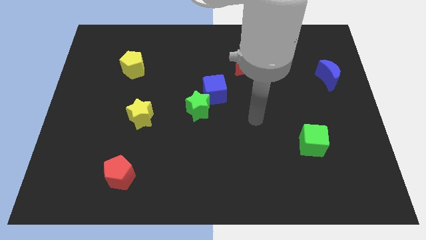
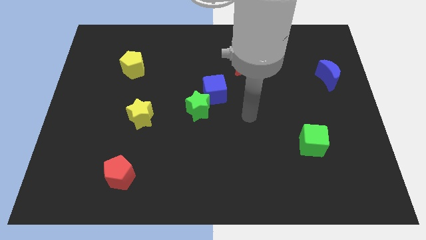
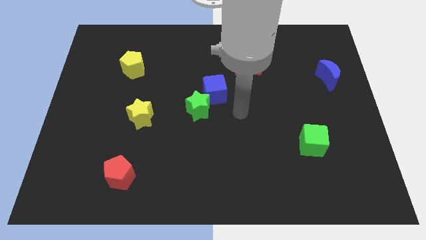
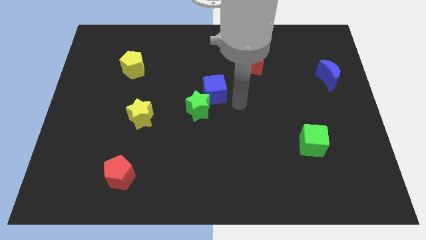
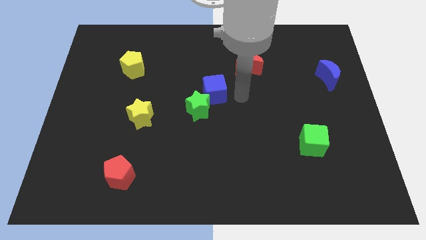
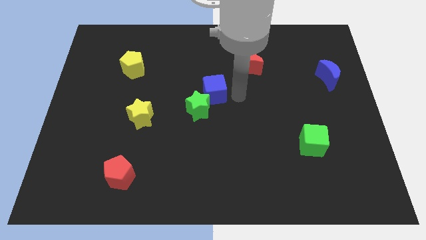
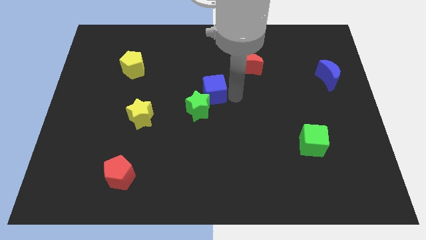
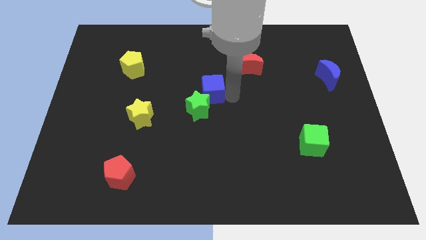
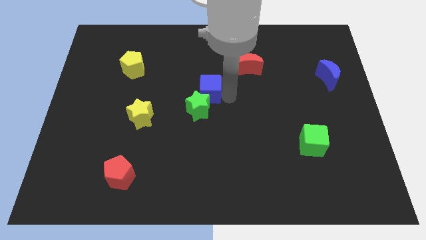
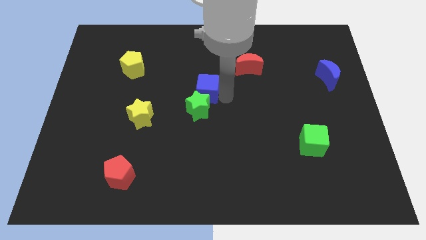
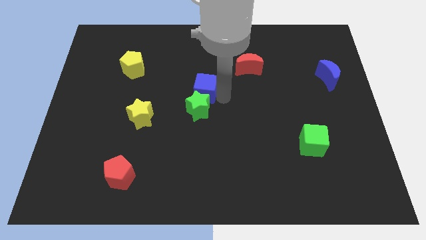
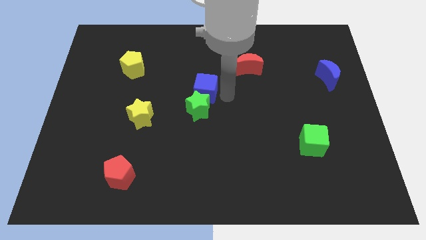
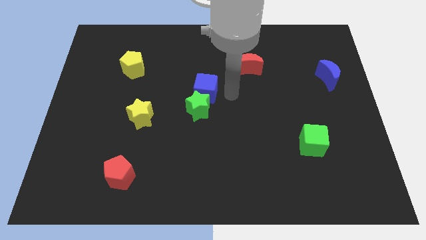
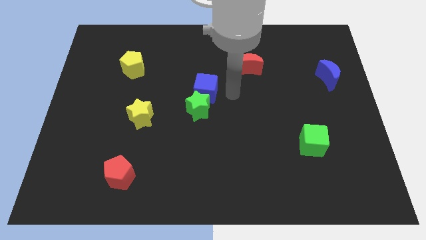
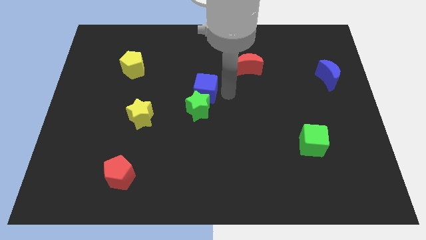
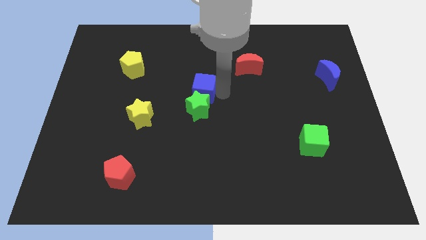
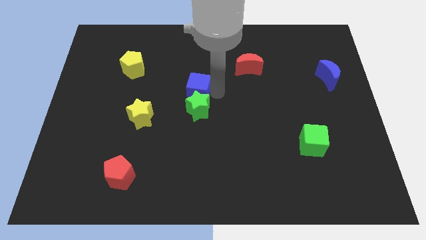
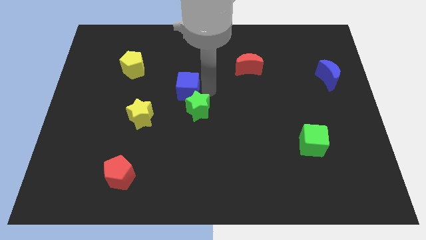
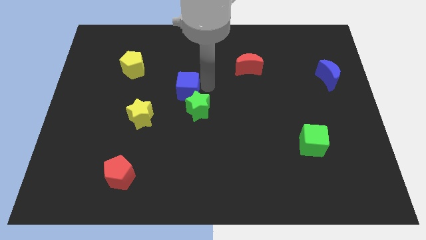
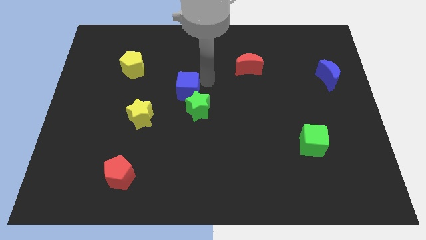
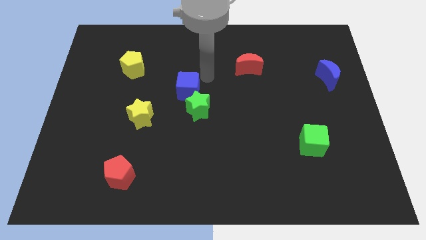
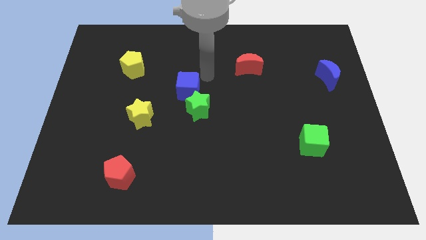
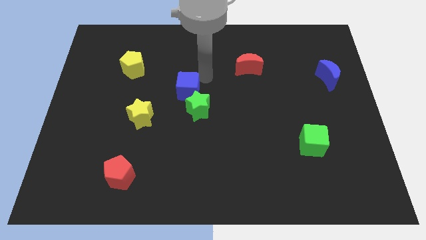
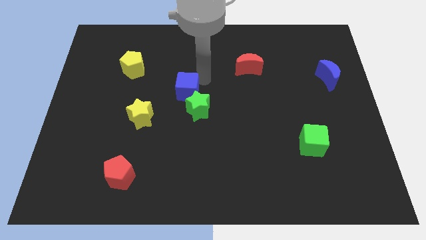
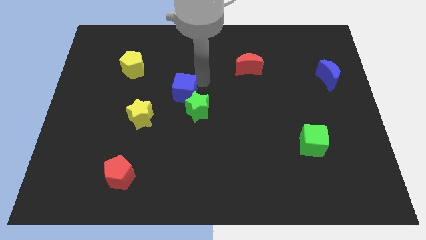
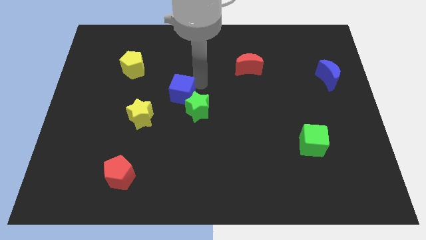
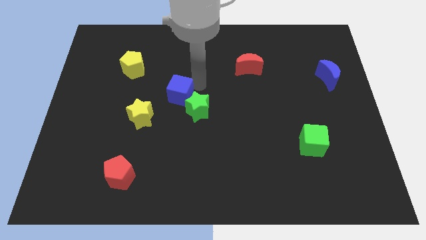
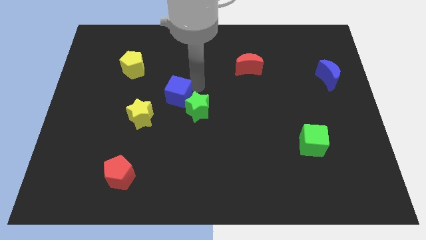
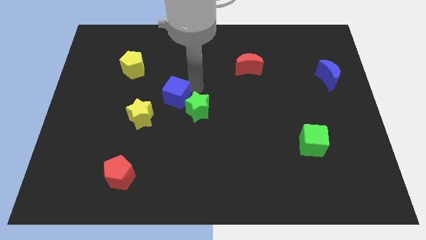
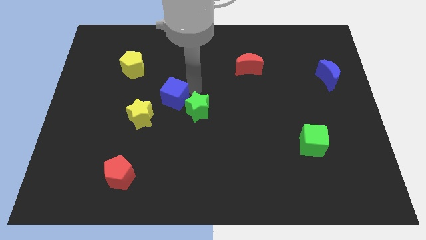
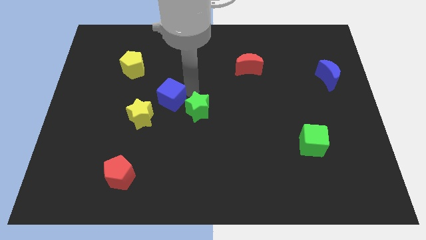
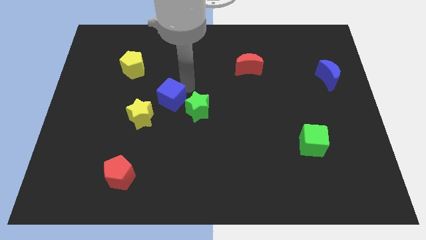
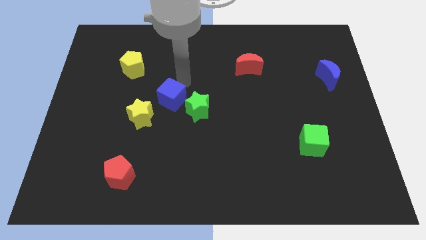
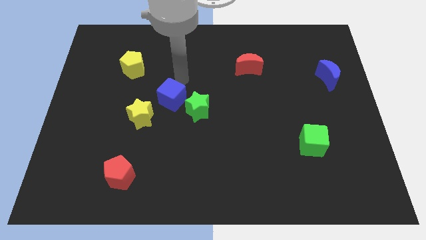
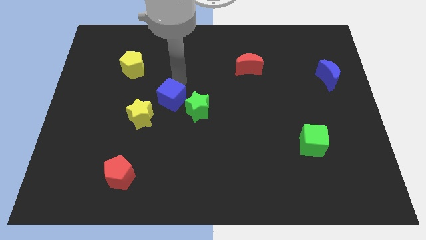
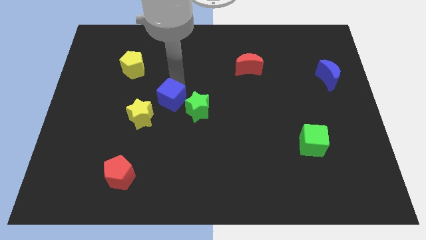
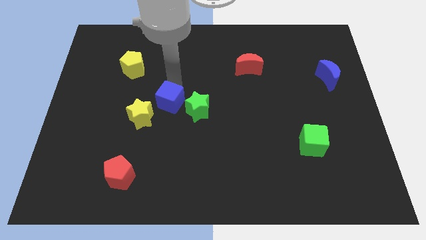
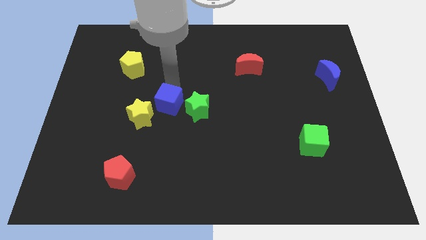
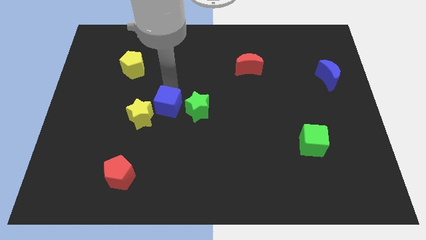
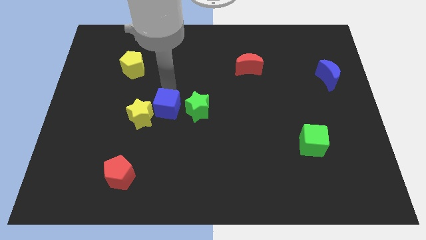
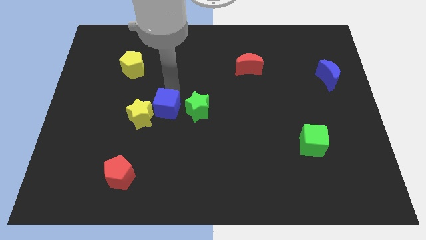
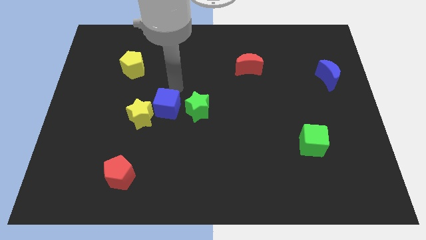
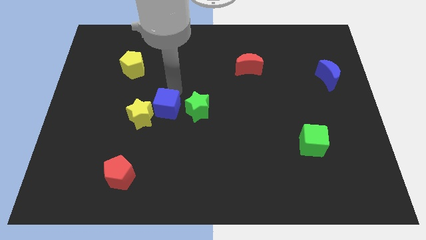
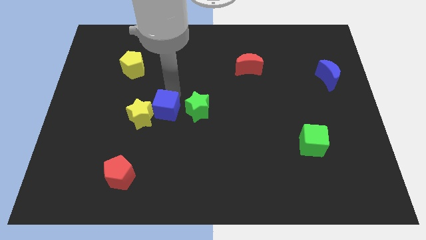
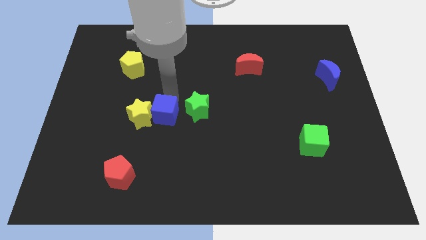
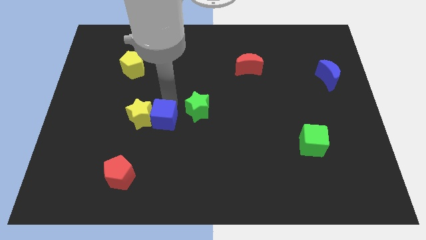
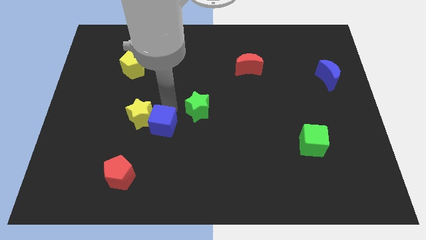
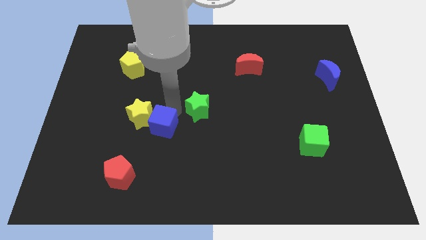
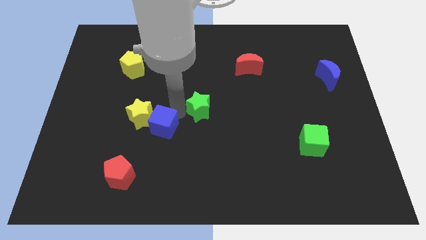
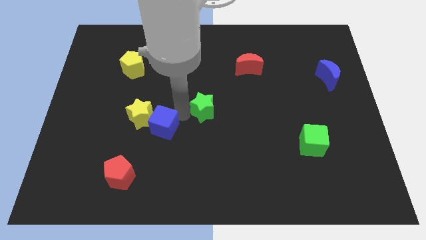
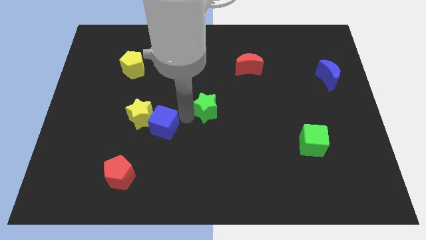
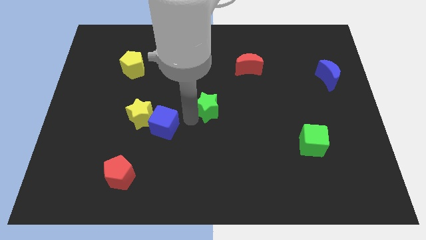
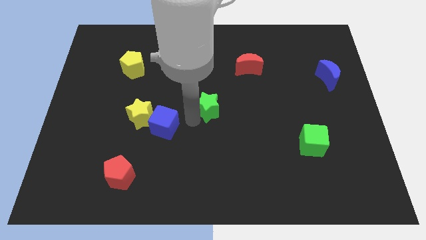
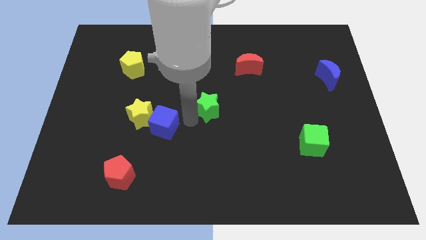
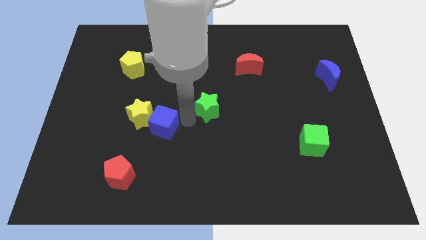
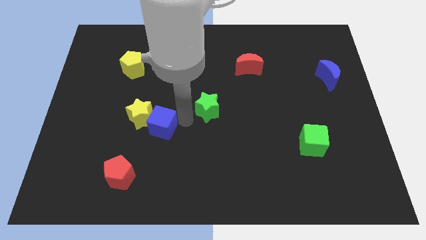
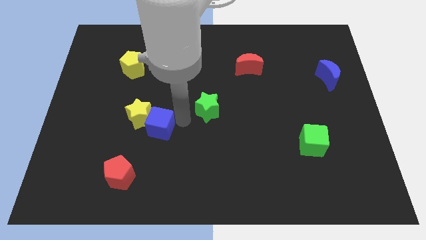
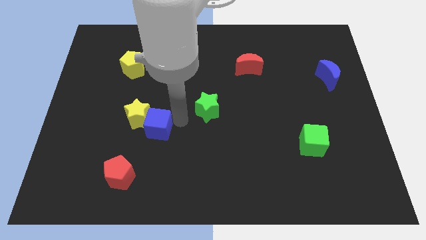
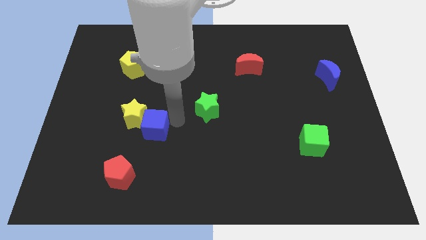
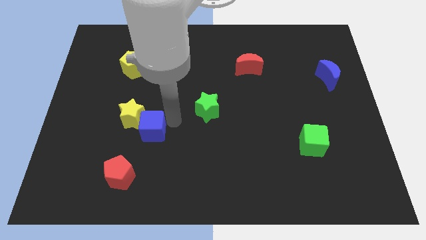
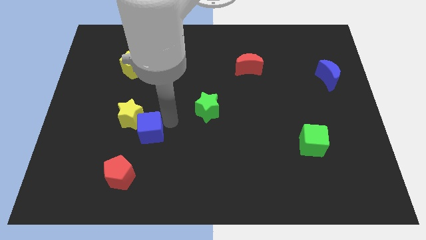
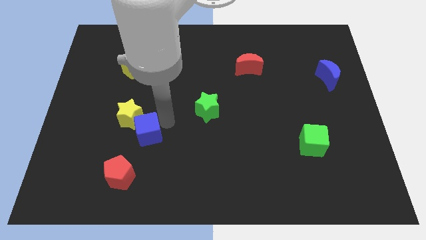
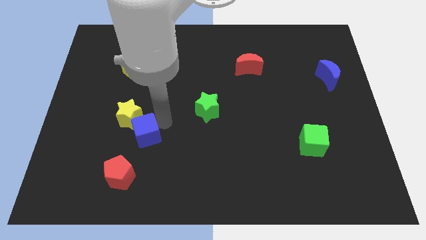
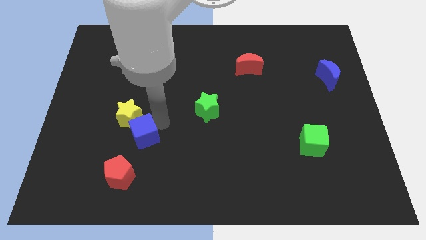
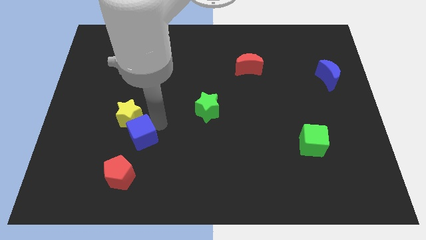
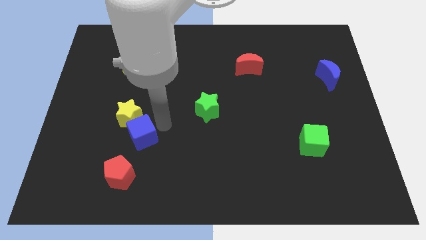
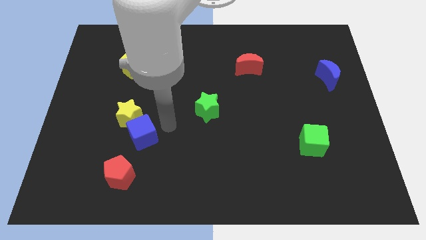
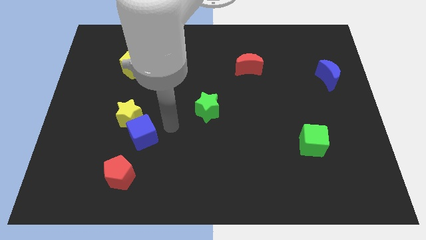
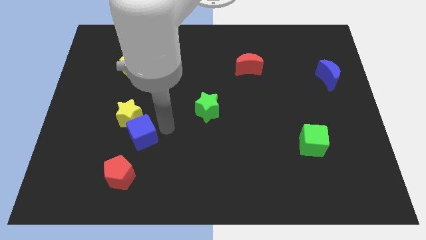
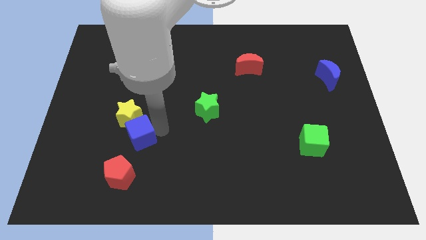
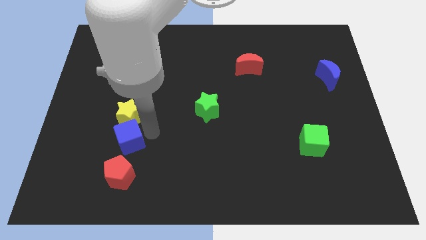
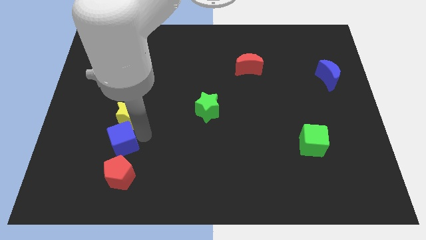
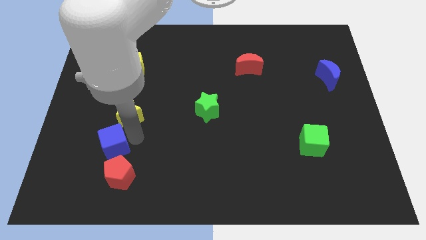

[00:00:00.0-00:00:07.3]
push the blue cube to the top left side of the red pentagon
